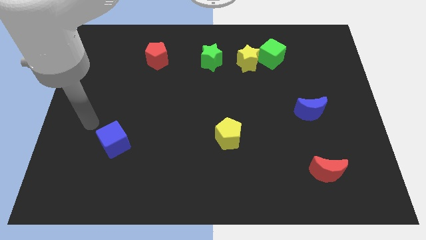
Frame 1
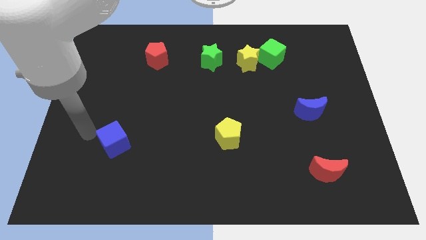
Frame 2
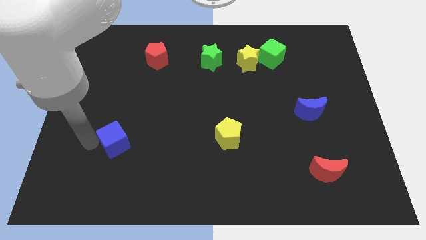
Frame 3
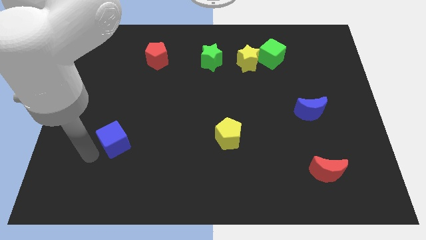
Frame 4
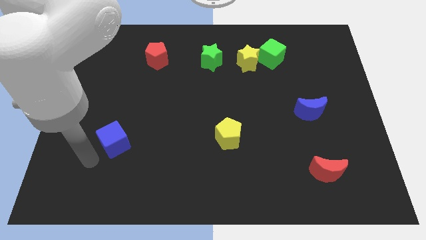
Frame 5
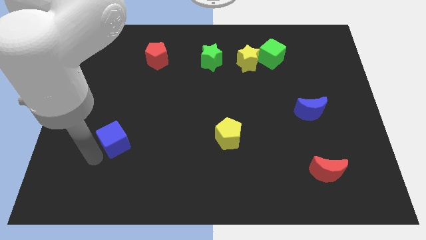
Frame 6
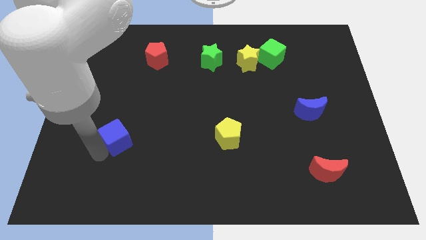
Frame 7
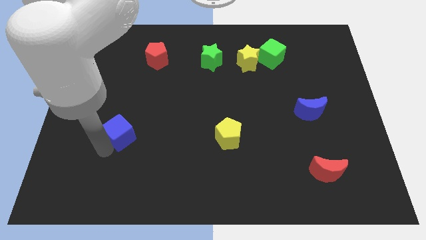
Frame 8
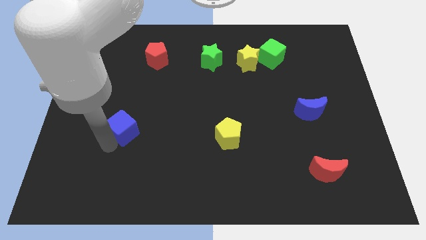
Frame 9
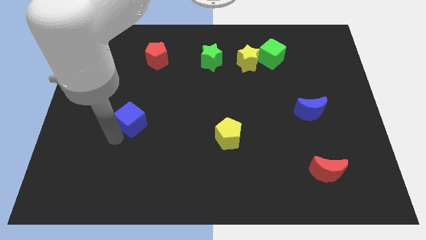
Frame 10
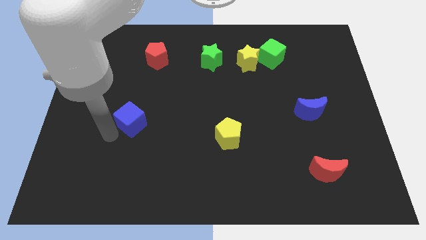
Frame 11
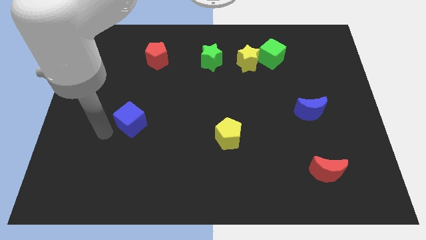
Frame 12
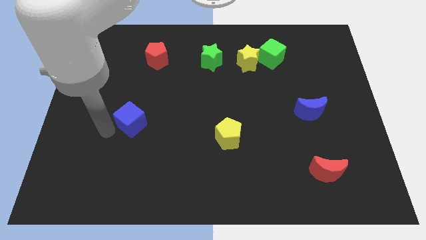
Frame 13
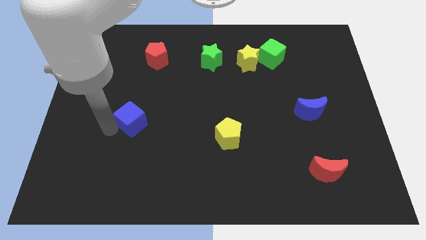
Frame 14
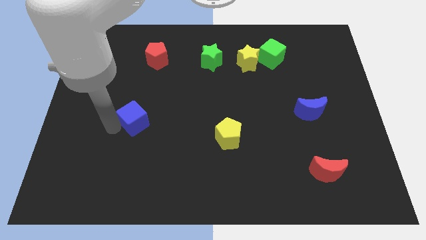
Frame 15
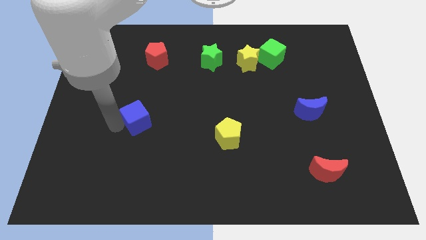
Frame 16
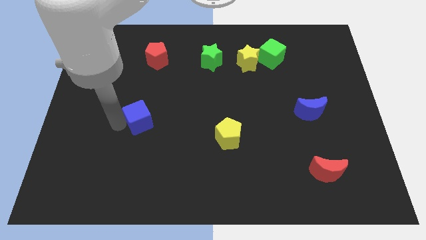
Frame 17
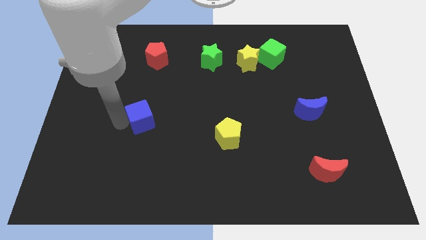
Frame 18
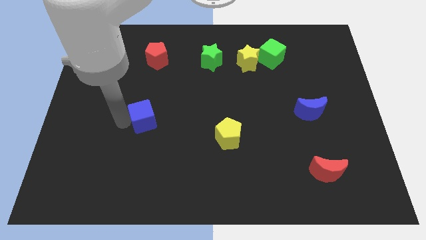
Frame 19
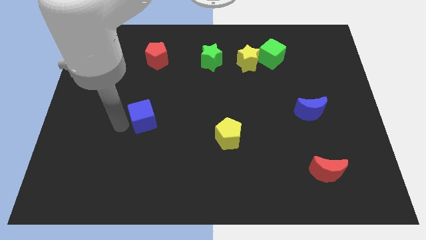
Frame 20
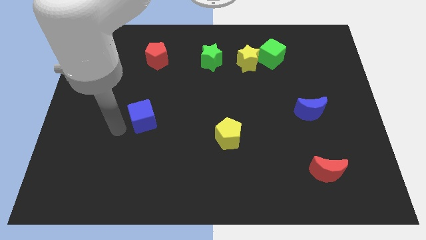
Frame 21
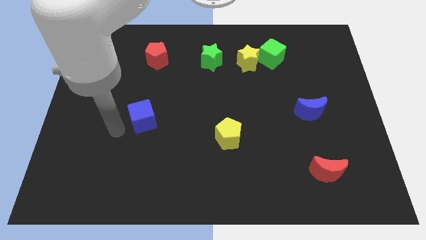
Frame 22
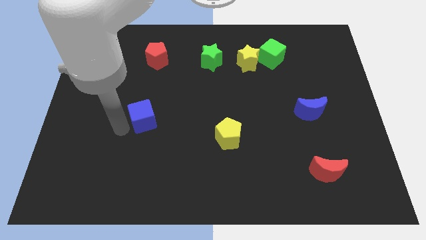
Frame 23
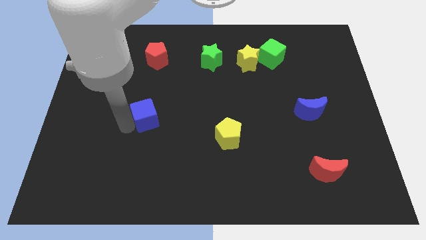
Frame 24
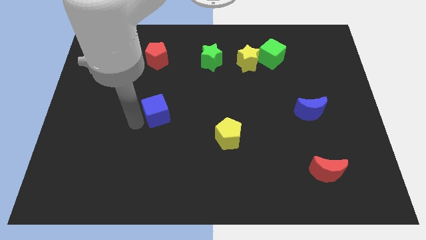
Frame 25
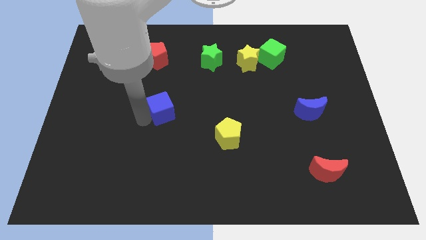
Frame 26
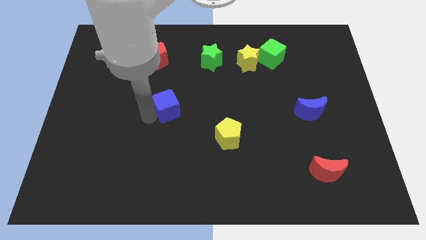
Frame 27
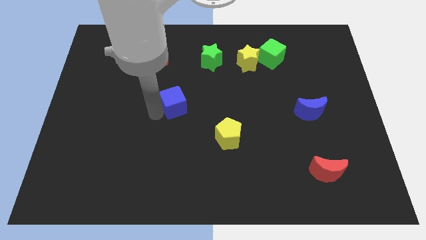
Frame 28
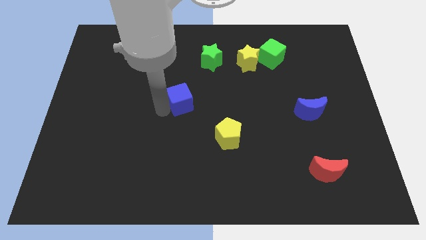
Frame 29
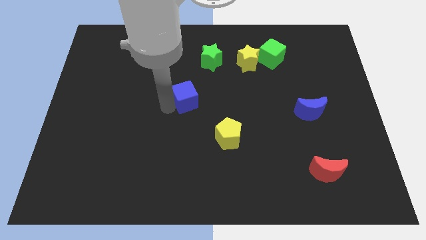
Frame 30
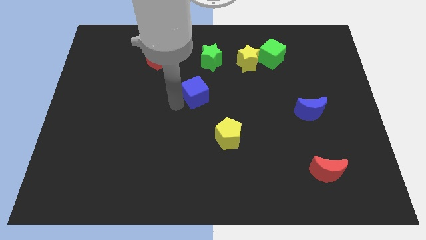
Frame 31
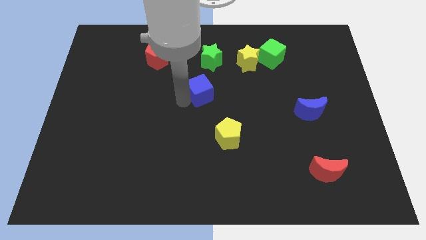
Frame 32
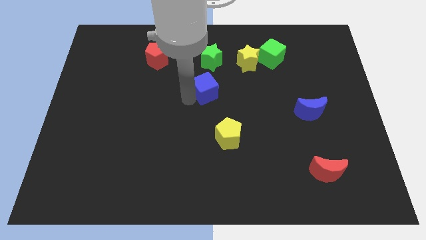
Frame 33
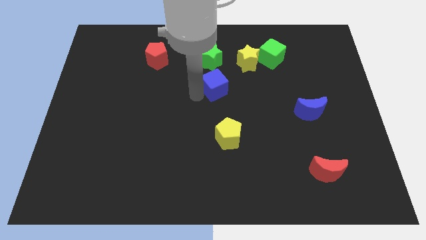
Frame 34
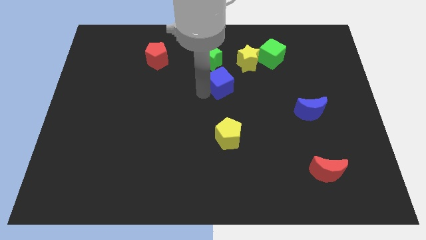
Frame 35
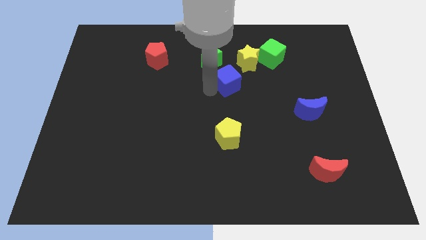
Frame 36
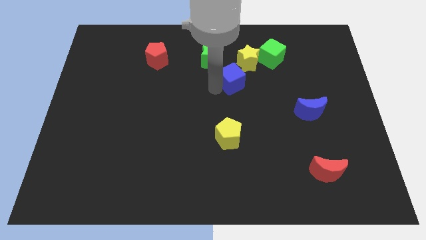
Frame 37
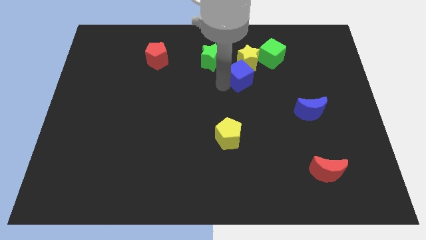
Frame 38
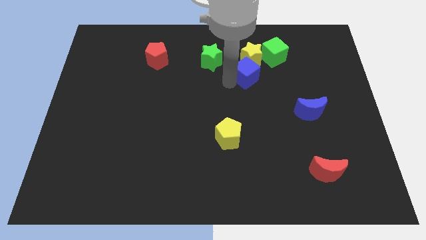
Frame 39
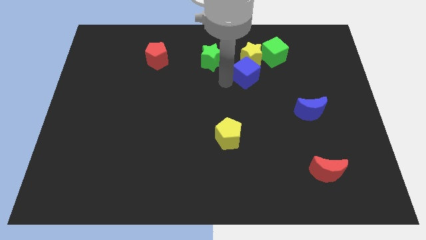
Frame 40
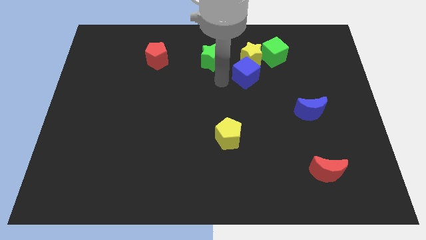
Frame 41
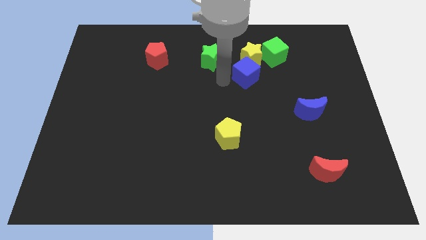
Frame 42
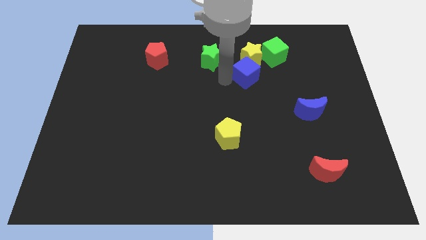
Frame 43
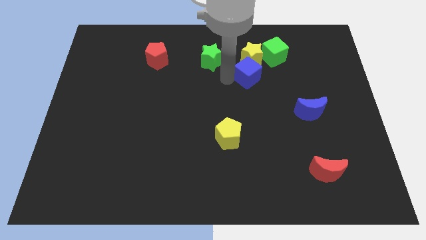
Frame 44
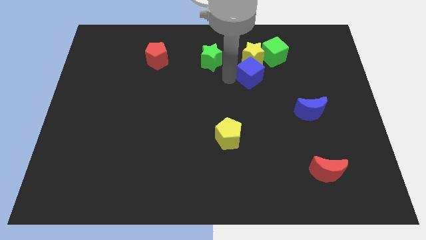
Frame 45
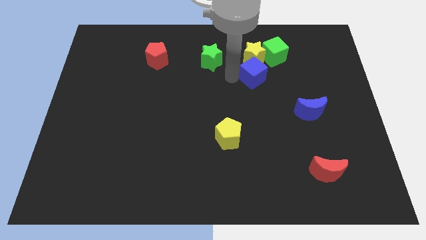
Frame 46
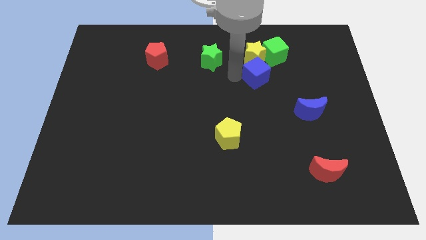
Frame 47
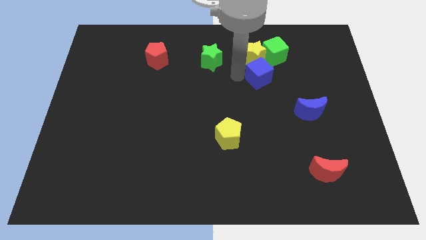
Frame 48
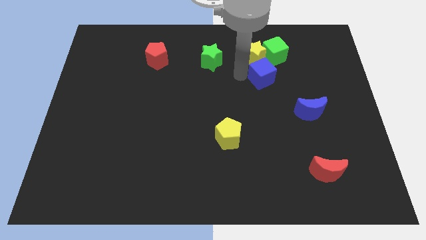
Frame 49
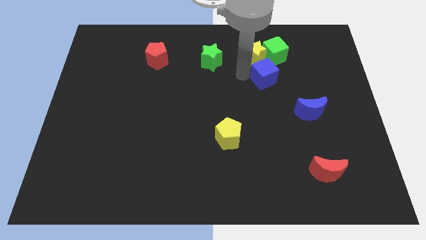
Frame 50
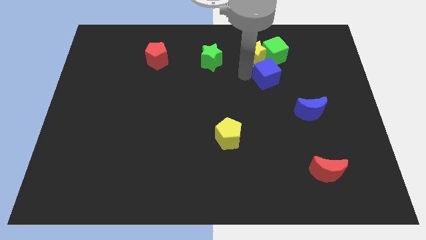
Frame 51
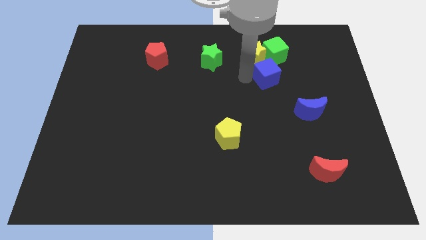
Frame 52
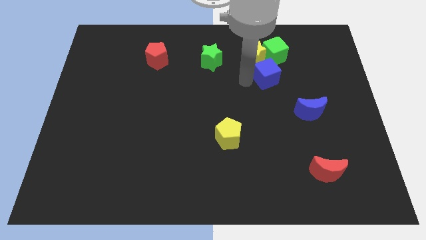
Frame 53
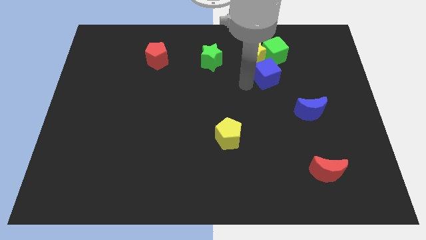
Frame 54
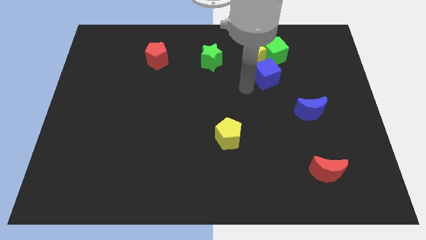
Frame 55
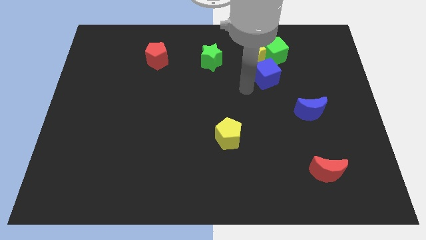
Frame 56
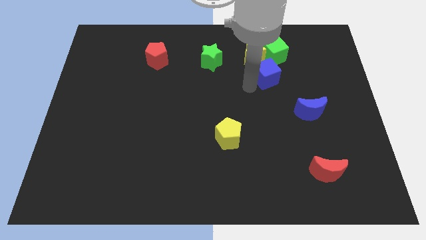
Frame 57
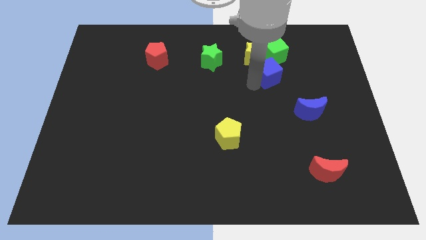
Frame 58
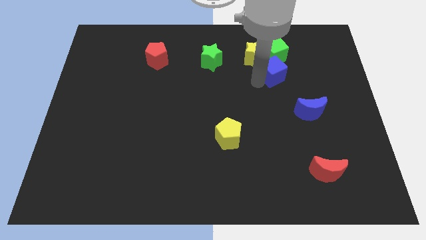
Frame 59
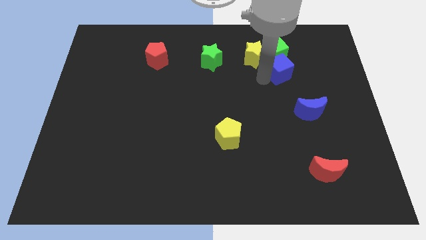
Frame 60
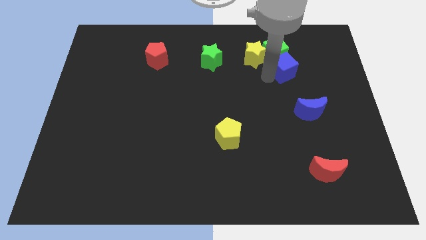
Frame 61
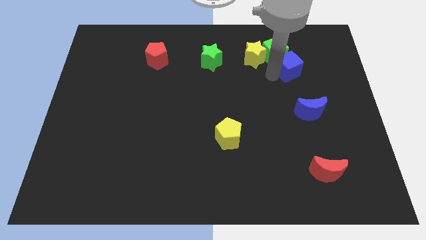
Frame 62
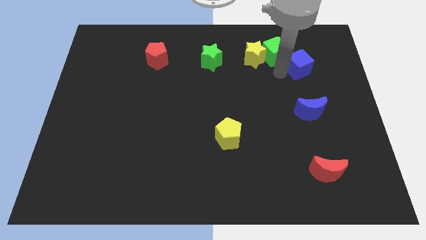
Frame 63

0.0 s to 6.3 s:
push the blue cube to the right side of the green cube

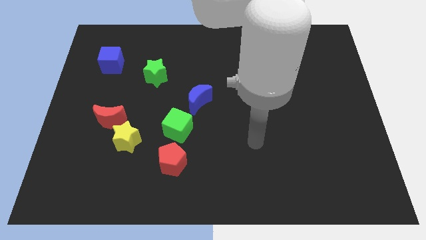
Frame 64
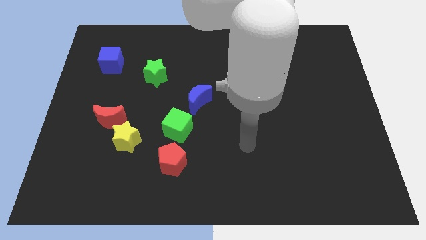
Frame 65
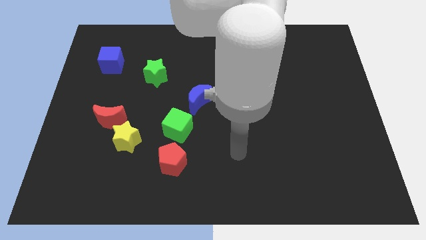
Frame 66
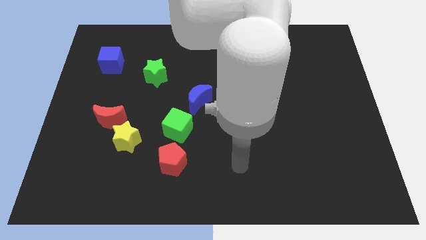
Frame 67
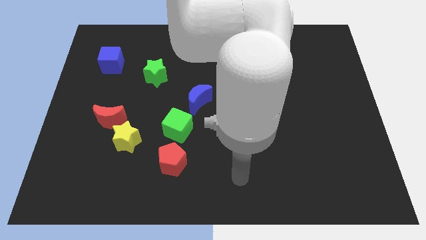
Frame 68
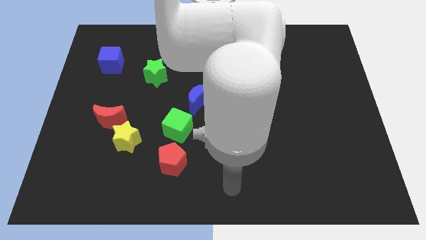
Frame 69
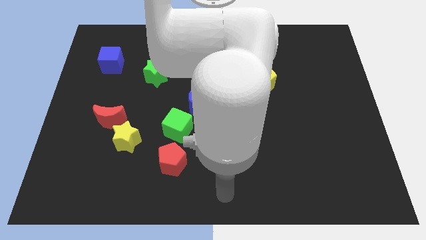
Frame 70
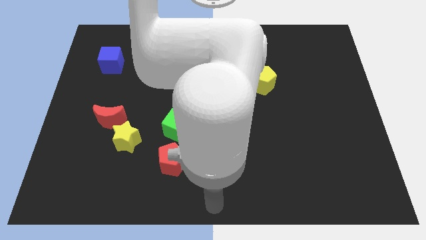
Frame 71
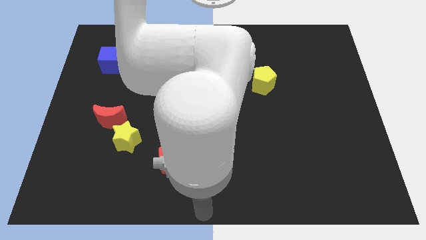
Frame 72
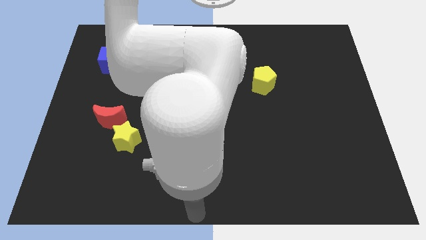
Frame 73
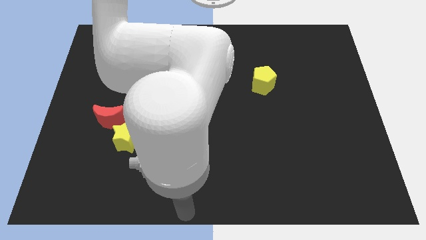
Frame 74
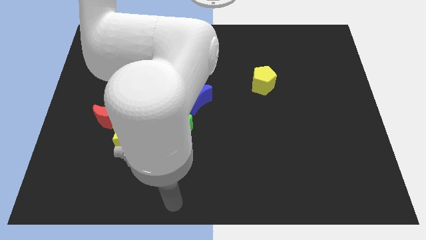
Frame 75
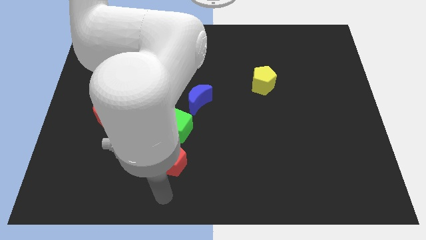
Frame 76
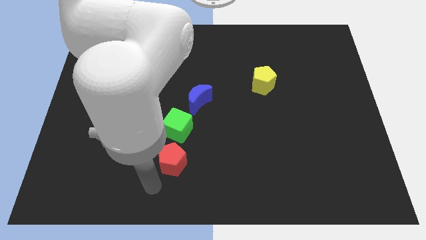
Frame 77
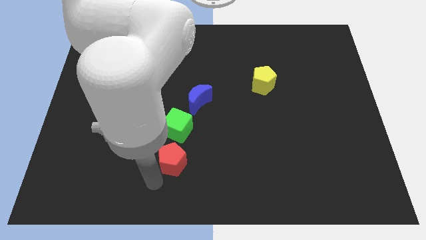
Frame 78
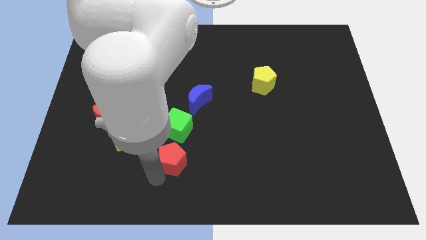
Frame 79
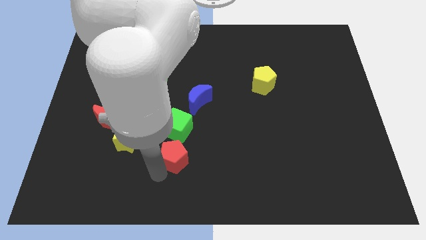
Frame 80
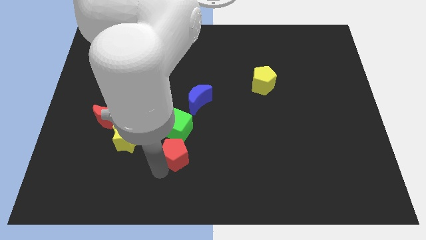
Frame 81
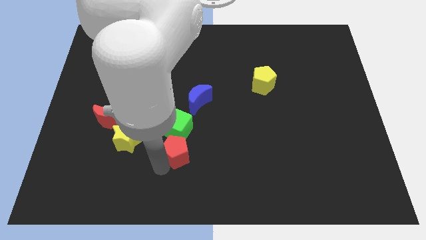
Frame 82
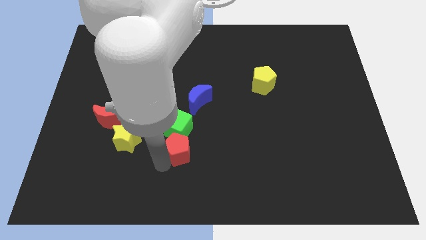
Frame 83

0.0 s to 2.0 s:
push the red pentagon to the bottom side of the blue moon
